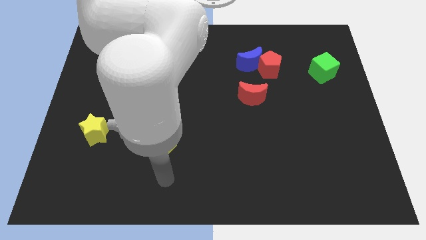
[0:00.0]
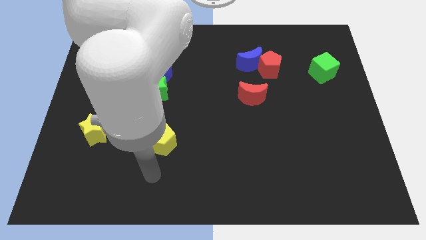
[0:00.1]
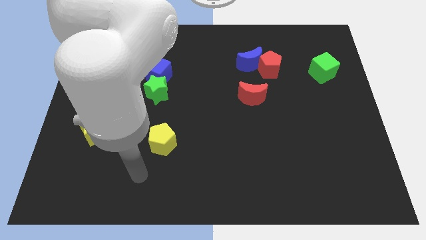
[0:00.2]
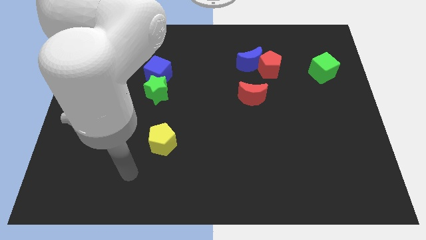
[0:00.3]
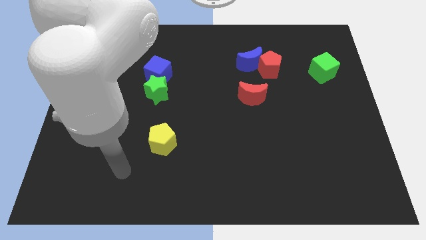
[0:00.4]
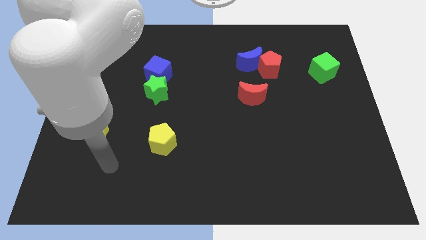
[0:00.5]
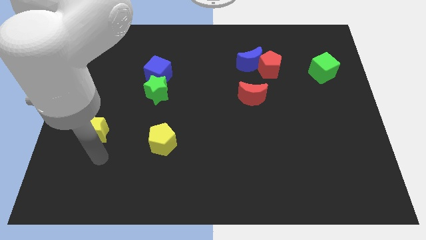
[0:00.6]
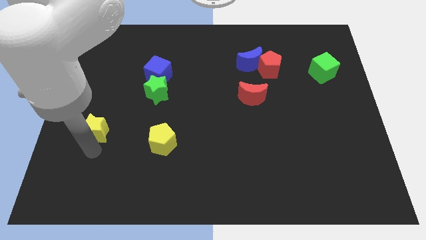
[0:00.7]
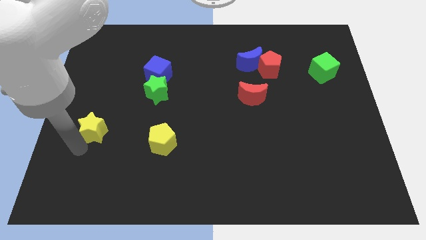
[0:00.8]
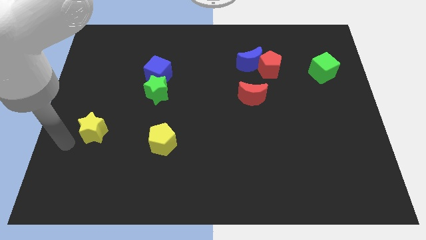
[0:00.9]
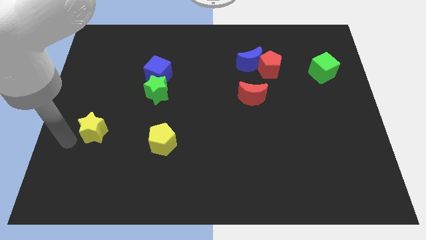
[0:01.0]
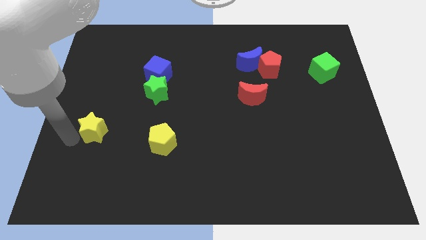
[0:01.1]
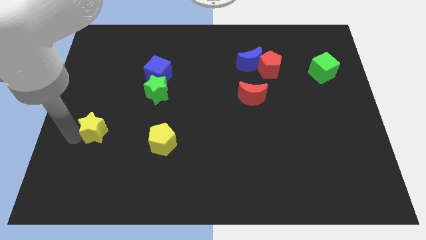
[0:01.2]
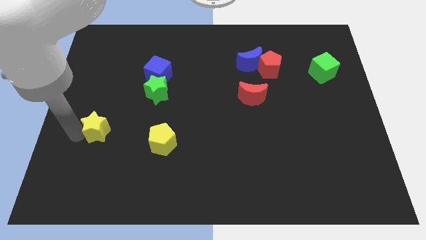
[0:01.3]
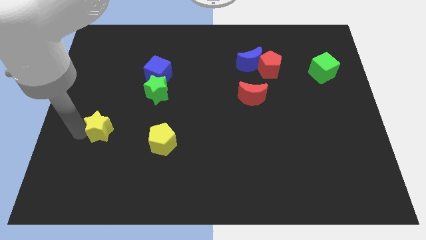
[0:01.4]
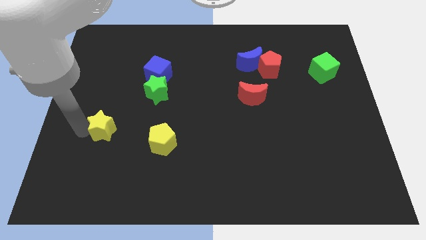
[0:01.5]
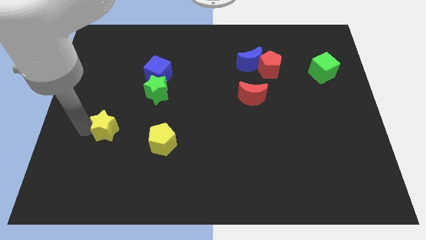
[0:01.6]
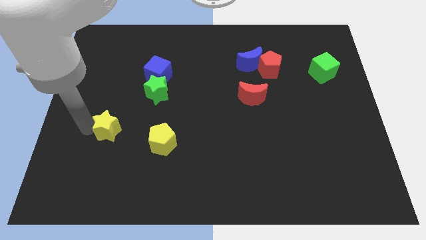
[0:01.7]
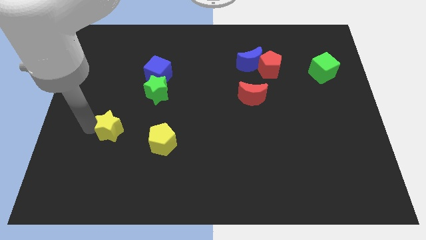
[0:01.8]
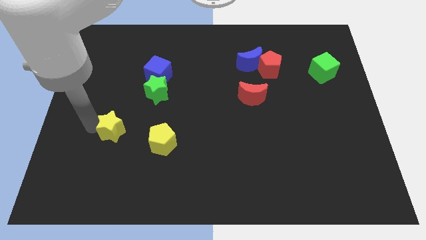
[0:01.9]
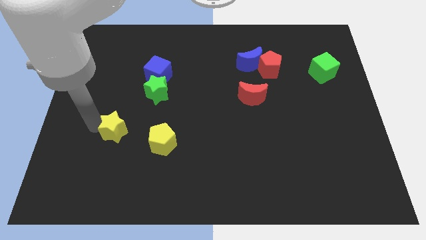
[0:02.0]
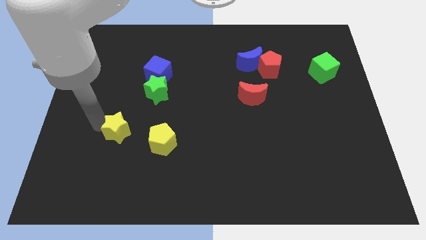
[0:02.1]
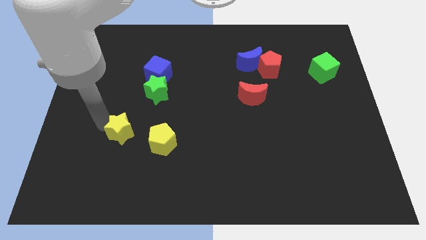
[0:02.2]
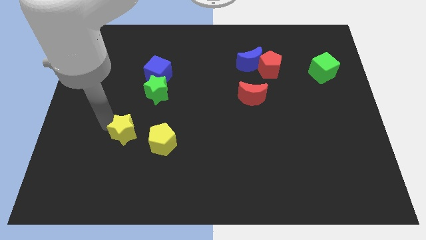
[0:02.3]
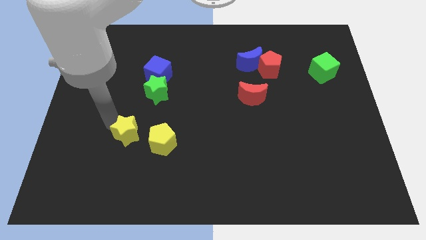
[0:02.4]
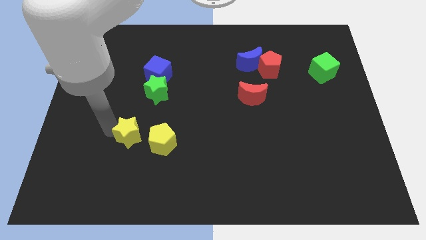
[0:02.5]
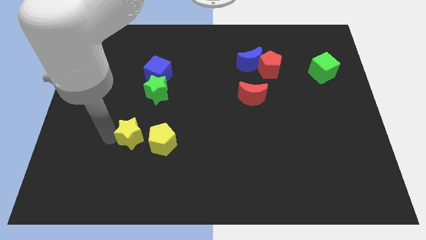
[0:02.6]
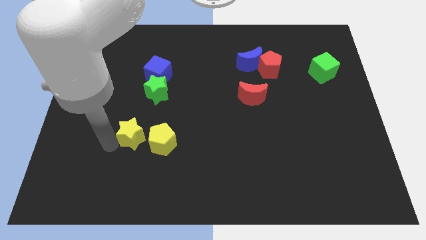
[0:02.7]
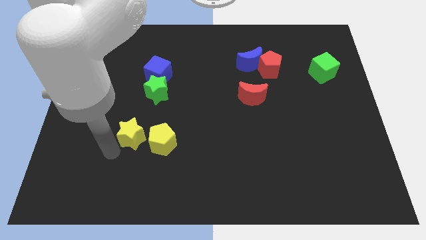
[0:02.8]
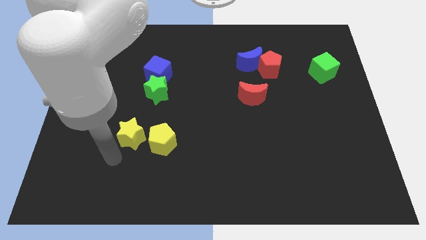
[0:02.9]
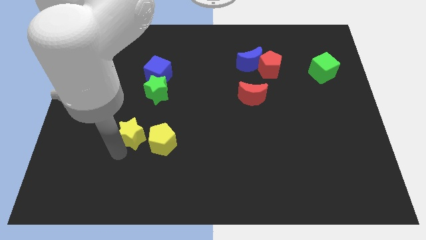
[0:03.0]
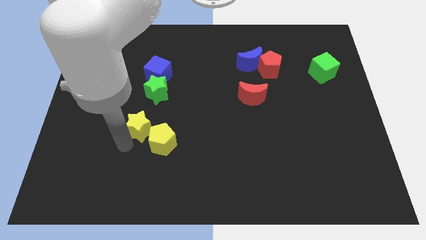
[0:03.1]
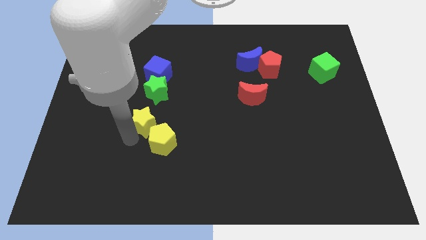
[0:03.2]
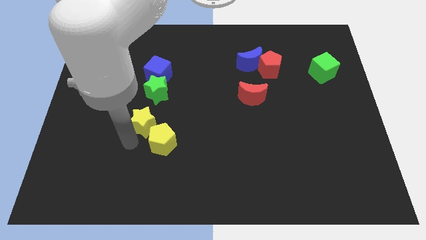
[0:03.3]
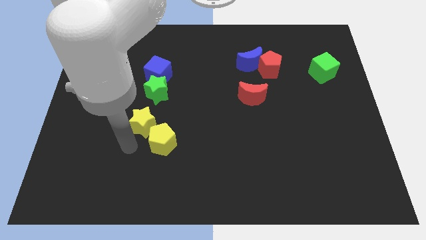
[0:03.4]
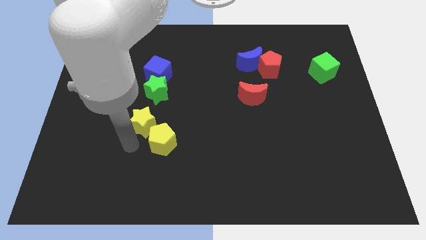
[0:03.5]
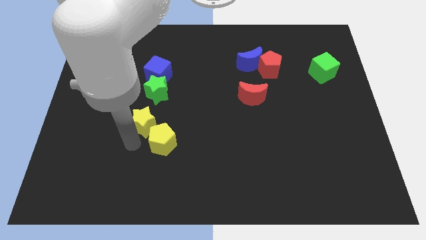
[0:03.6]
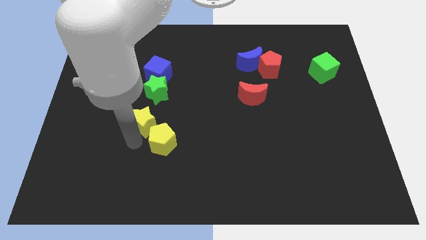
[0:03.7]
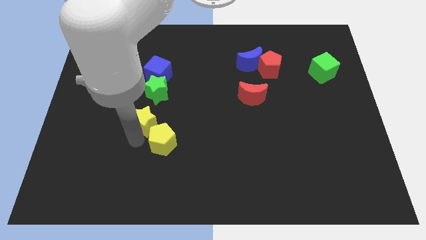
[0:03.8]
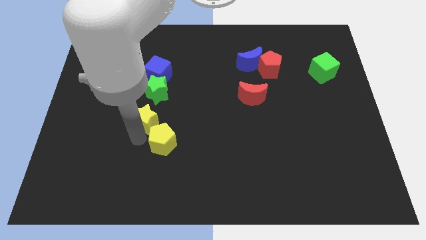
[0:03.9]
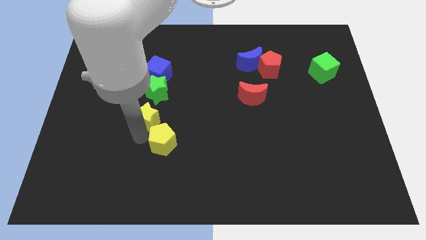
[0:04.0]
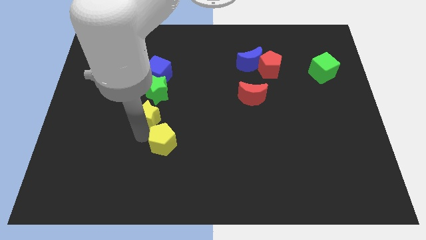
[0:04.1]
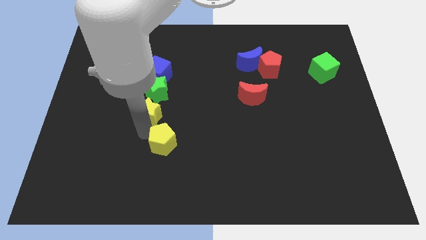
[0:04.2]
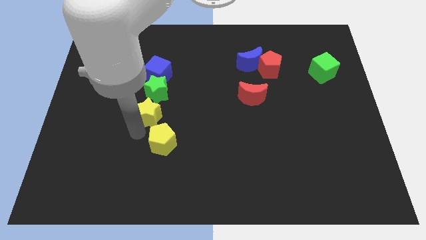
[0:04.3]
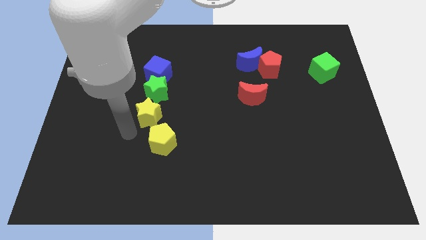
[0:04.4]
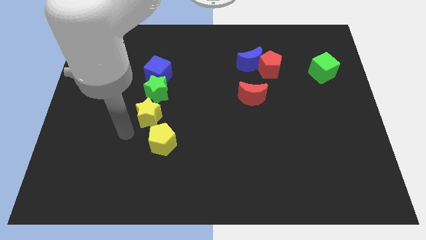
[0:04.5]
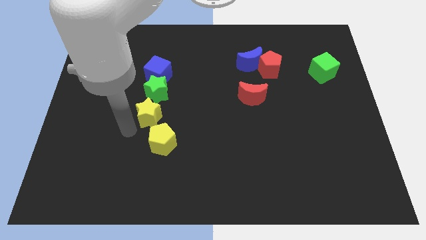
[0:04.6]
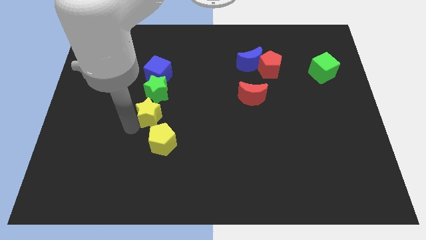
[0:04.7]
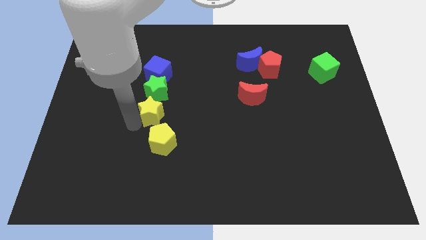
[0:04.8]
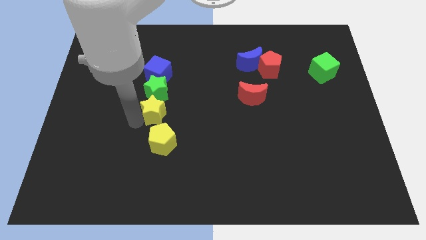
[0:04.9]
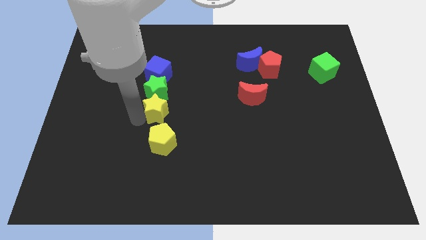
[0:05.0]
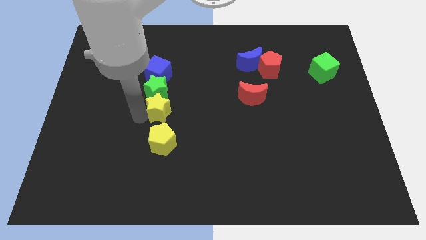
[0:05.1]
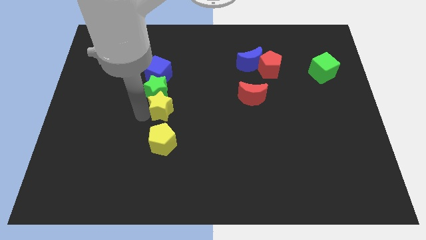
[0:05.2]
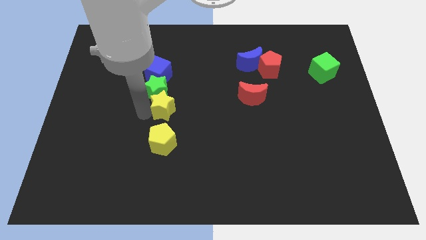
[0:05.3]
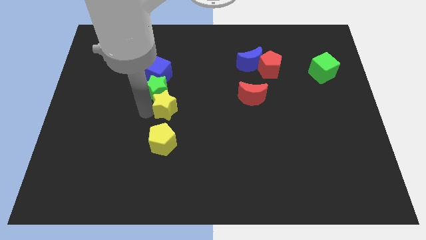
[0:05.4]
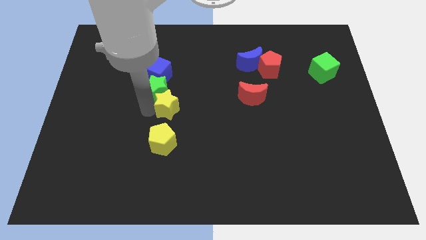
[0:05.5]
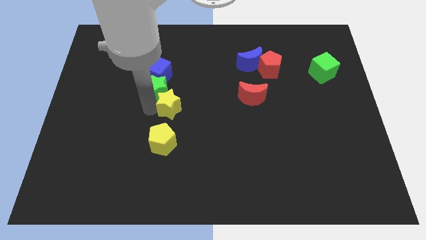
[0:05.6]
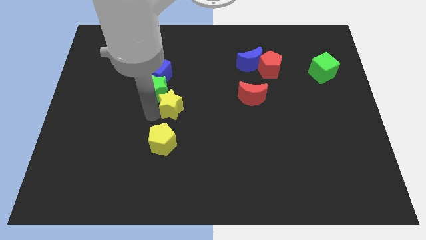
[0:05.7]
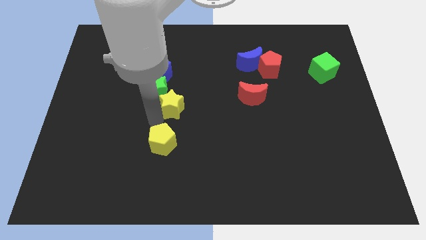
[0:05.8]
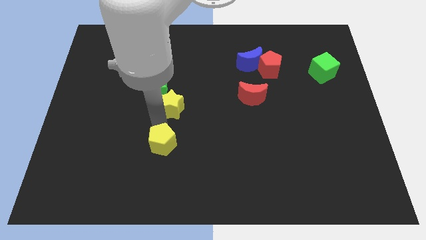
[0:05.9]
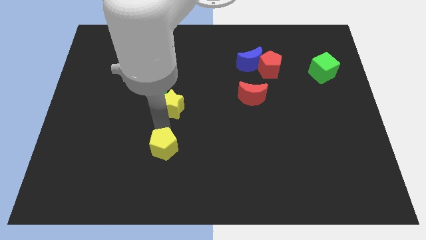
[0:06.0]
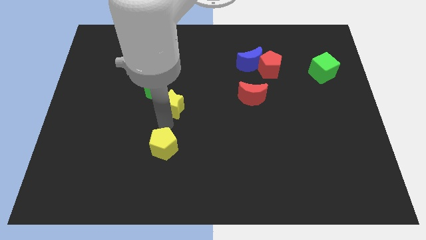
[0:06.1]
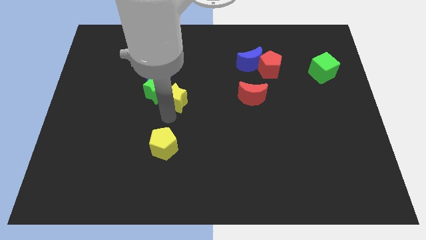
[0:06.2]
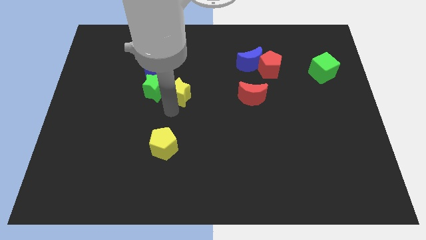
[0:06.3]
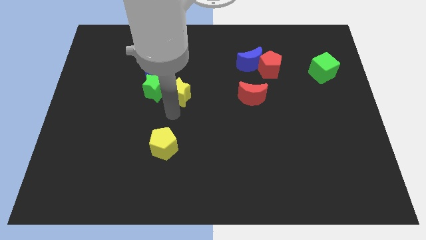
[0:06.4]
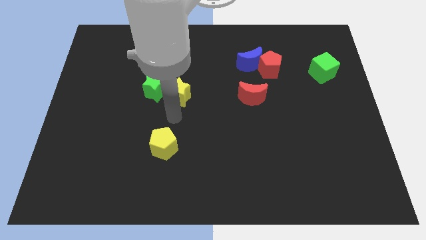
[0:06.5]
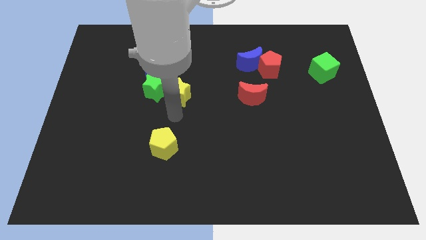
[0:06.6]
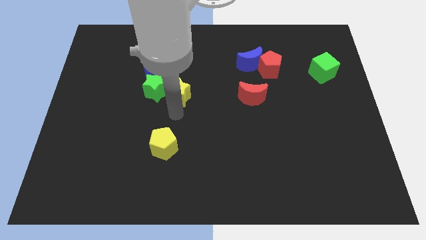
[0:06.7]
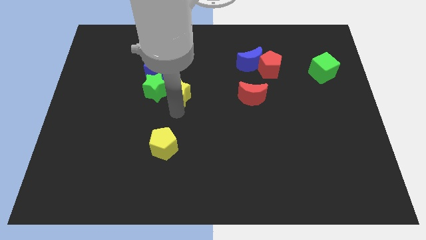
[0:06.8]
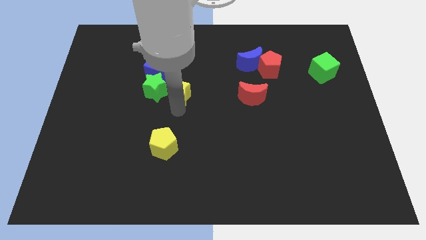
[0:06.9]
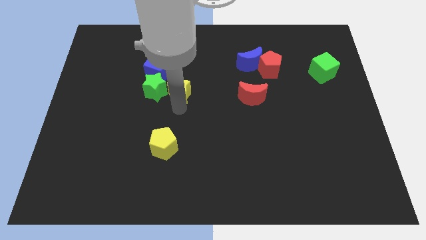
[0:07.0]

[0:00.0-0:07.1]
move the yellow star up and to the right

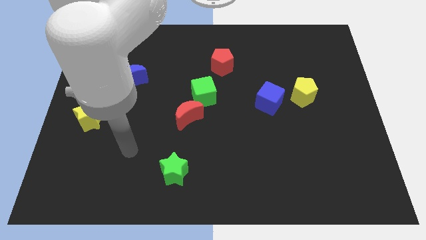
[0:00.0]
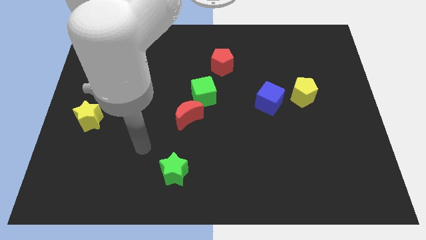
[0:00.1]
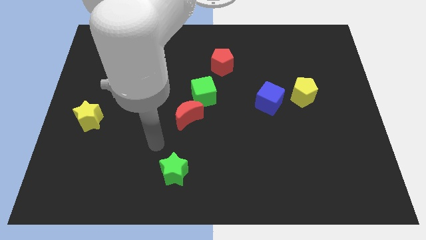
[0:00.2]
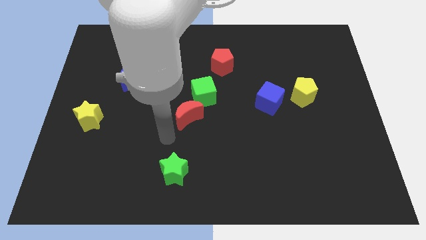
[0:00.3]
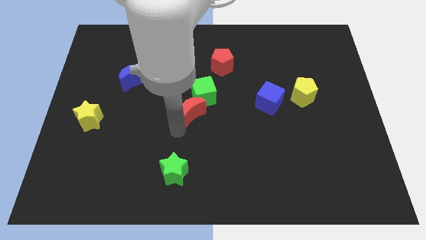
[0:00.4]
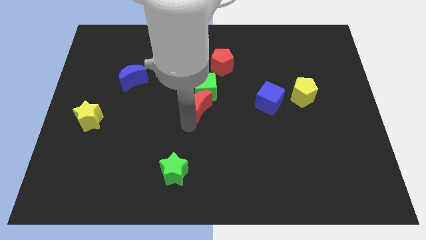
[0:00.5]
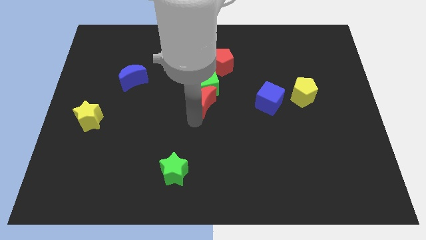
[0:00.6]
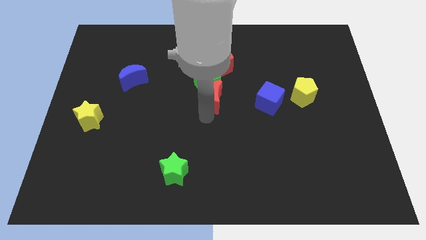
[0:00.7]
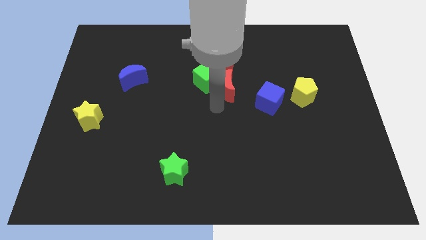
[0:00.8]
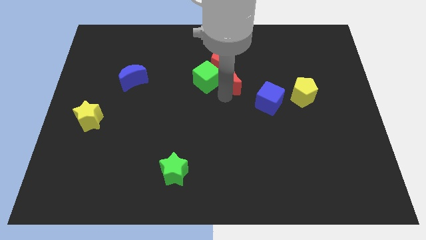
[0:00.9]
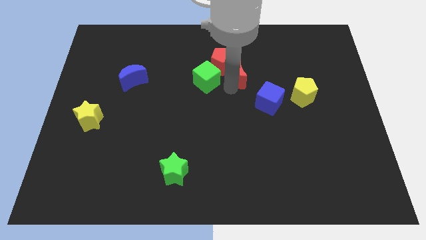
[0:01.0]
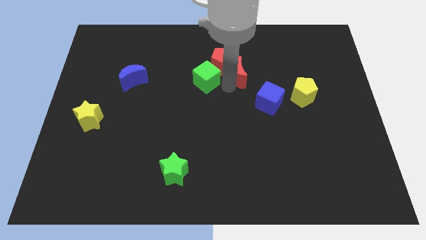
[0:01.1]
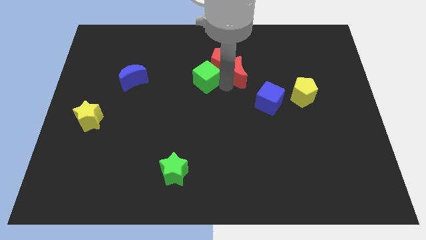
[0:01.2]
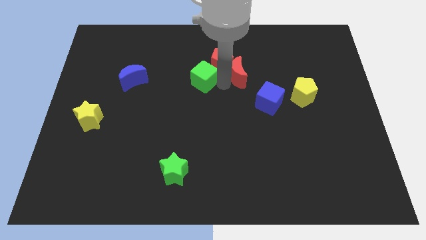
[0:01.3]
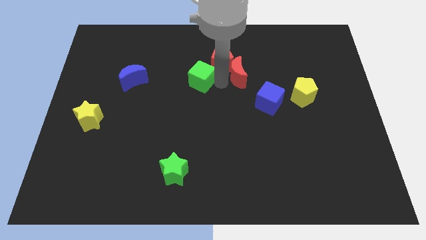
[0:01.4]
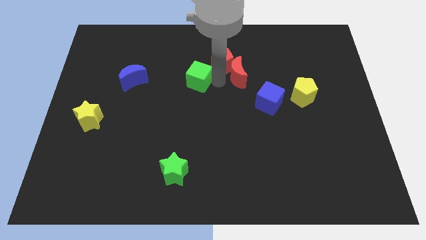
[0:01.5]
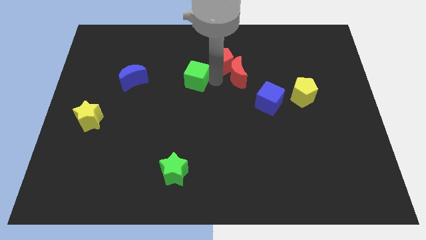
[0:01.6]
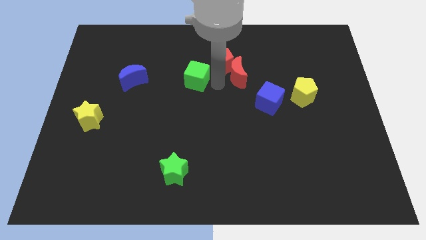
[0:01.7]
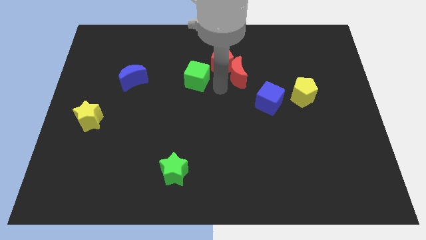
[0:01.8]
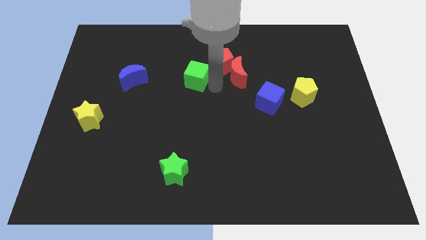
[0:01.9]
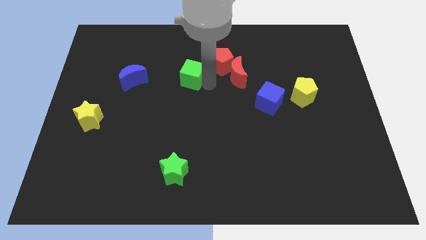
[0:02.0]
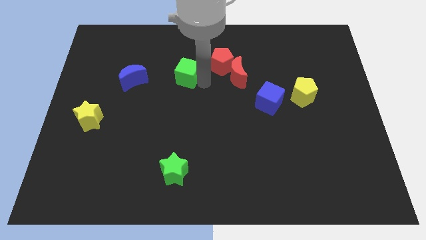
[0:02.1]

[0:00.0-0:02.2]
slightly push the green cube up and to the left
